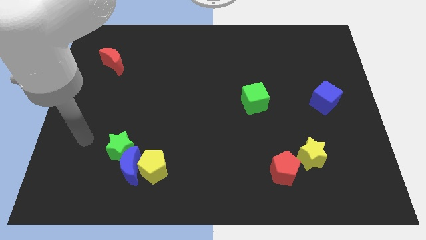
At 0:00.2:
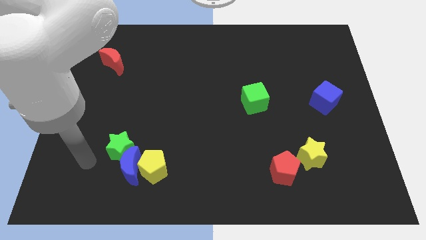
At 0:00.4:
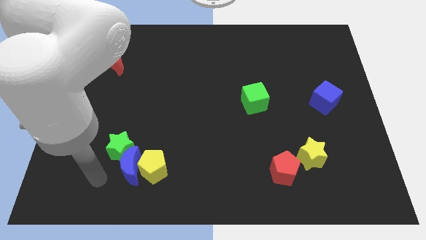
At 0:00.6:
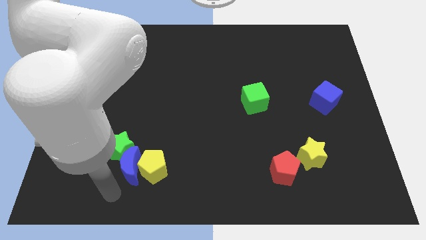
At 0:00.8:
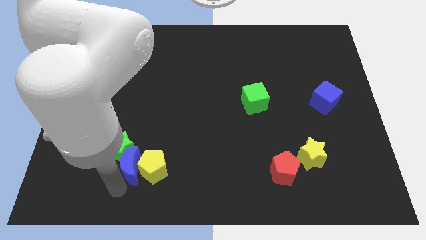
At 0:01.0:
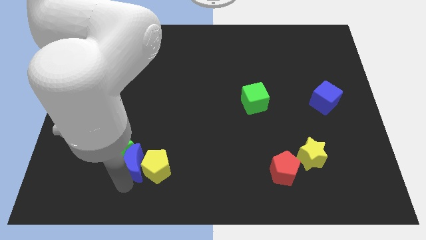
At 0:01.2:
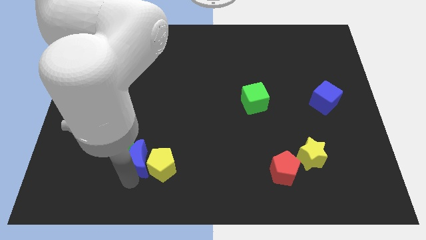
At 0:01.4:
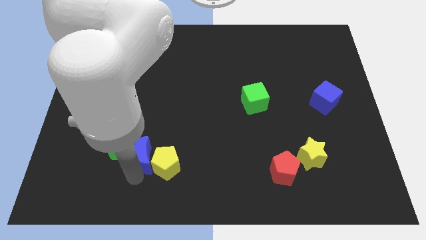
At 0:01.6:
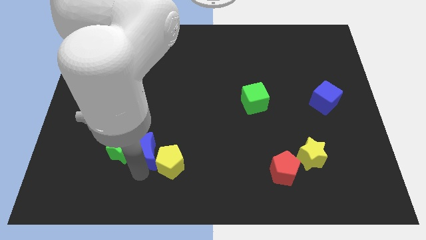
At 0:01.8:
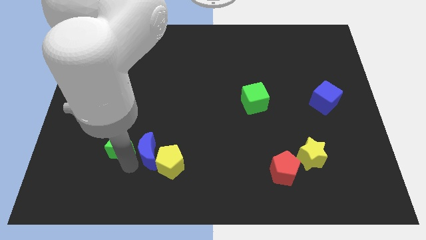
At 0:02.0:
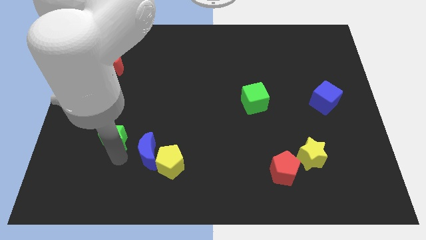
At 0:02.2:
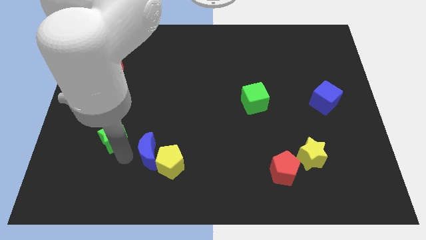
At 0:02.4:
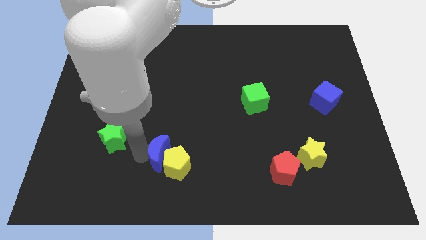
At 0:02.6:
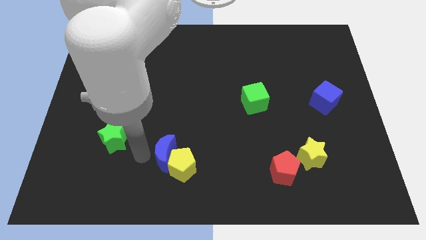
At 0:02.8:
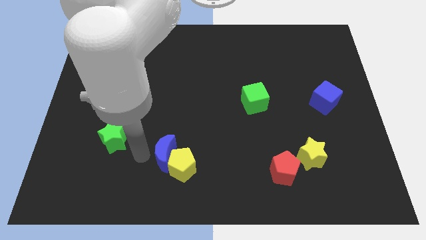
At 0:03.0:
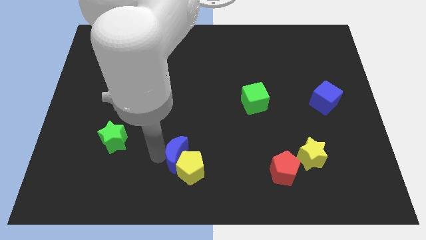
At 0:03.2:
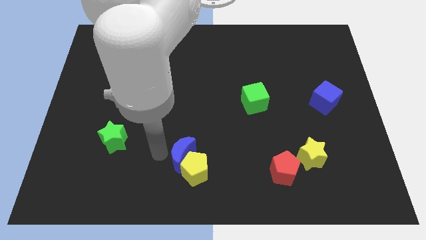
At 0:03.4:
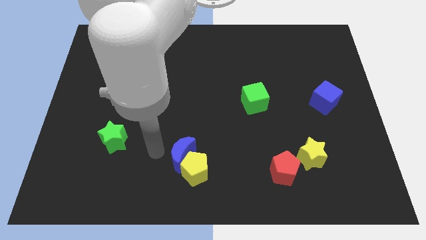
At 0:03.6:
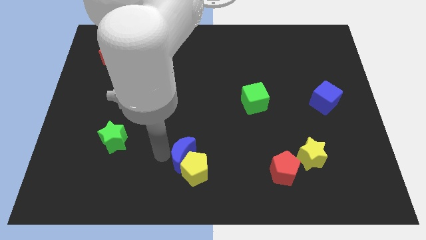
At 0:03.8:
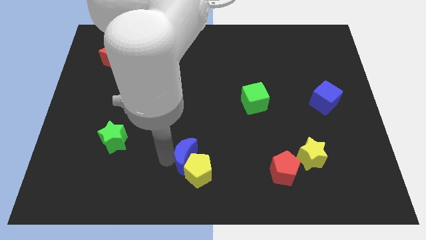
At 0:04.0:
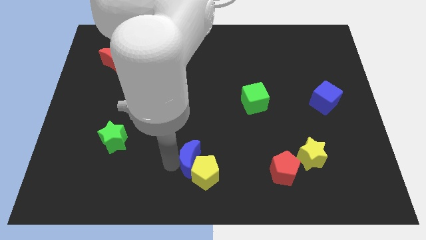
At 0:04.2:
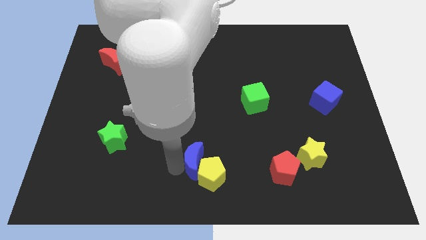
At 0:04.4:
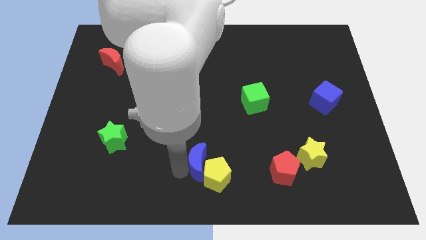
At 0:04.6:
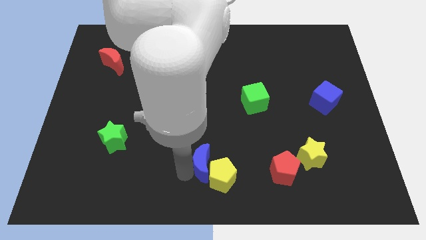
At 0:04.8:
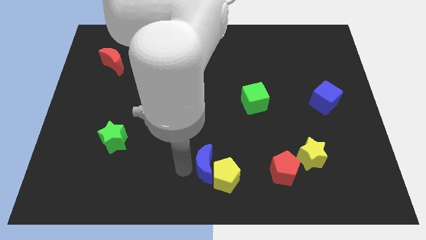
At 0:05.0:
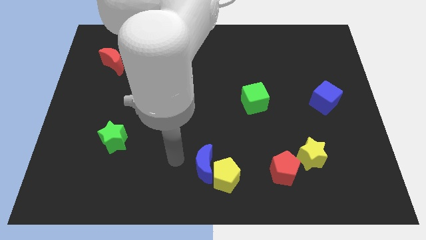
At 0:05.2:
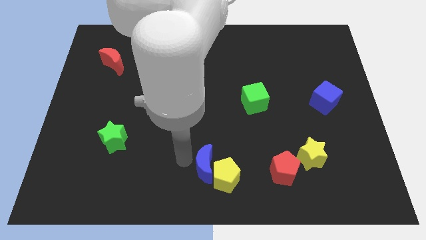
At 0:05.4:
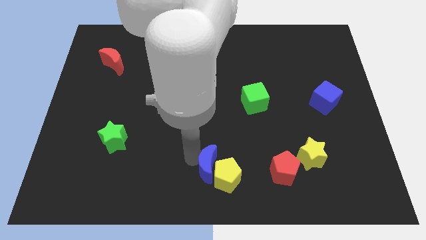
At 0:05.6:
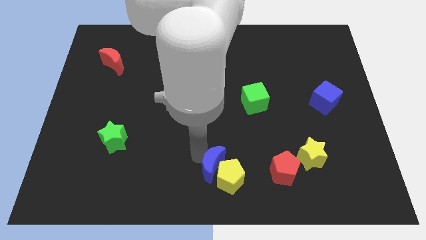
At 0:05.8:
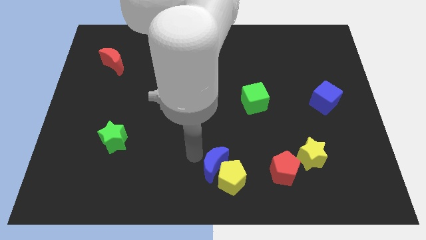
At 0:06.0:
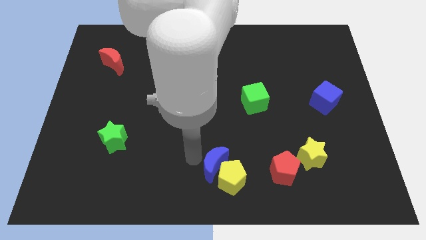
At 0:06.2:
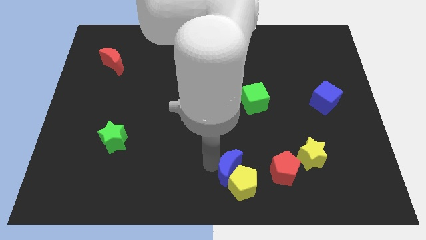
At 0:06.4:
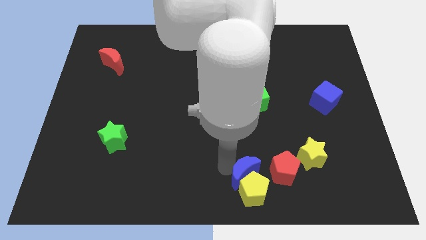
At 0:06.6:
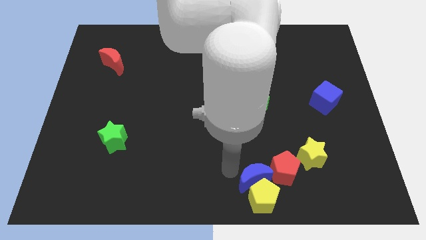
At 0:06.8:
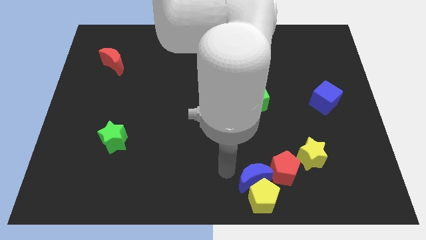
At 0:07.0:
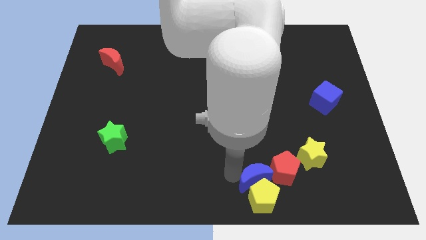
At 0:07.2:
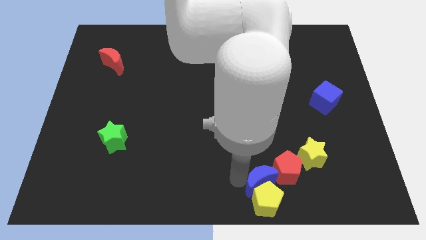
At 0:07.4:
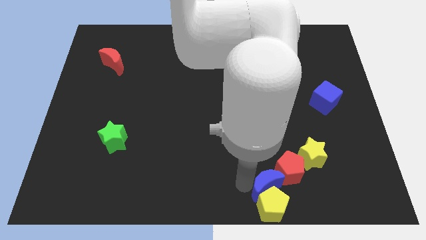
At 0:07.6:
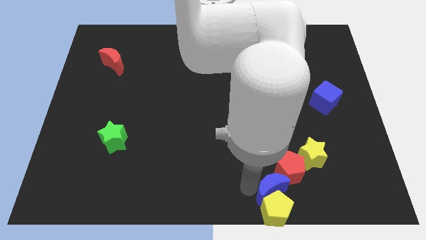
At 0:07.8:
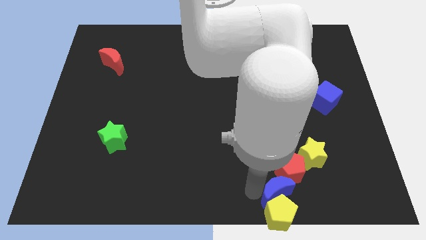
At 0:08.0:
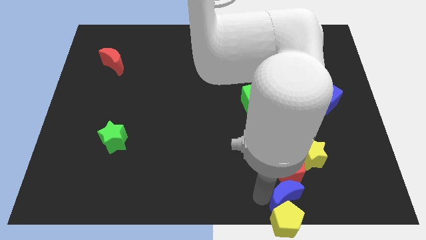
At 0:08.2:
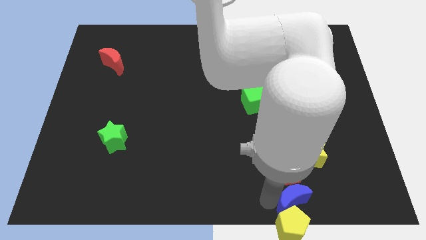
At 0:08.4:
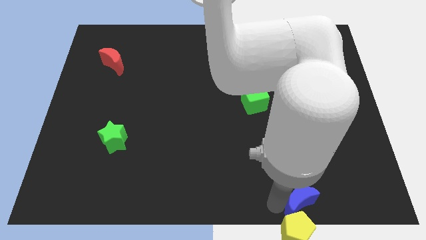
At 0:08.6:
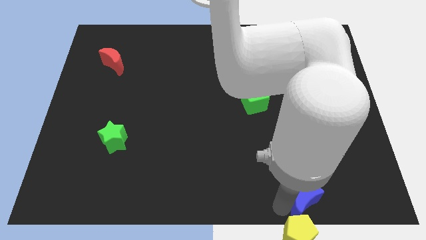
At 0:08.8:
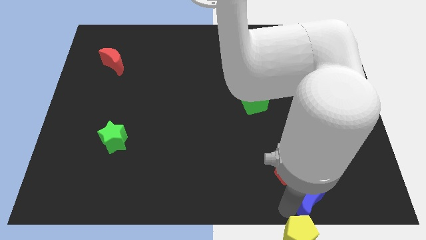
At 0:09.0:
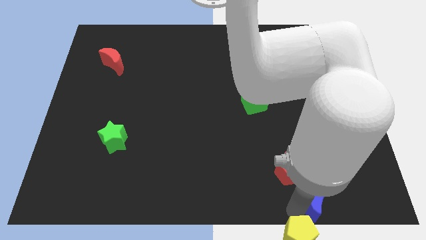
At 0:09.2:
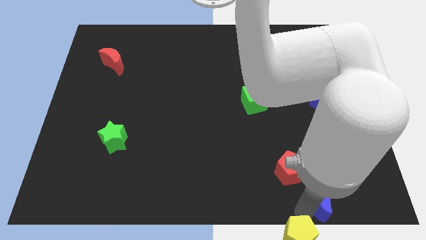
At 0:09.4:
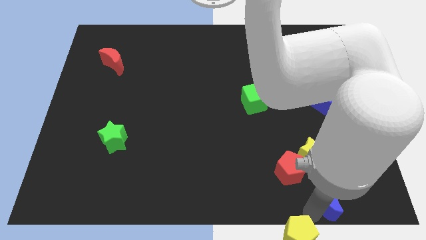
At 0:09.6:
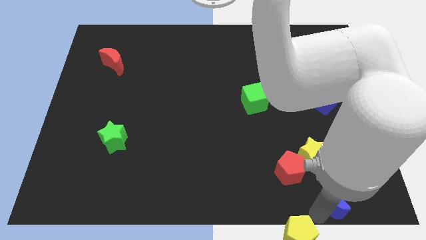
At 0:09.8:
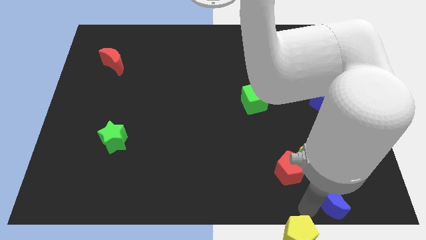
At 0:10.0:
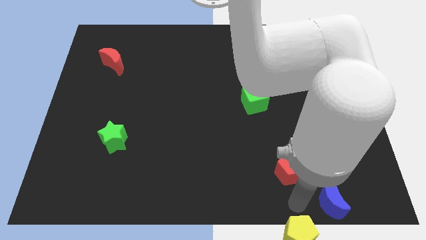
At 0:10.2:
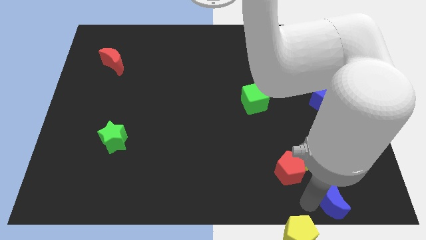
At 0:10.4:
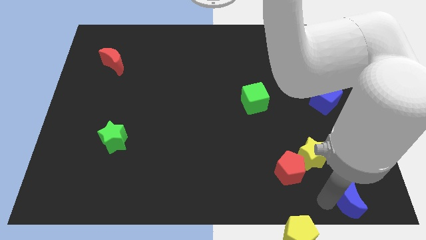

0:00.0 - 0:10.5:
put the blue moon to the bottom right corner

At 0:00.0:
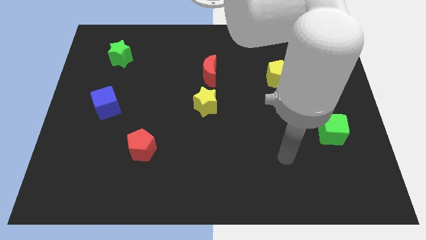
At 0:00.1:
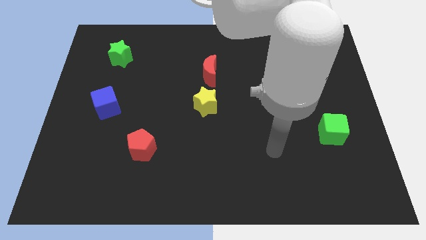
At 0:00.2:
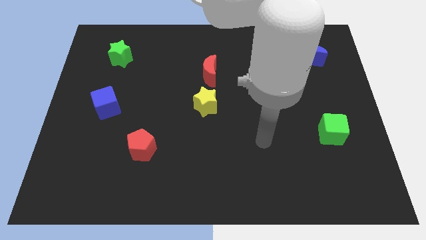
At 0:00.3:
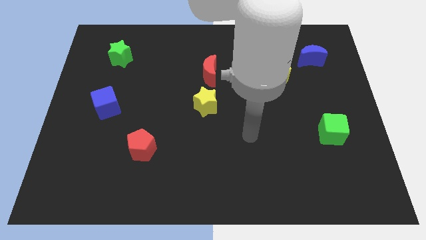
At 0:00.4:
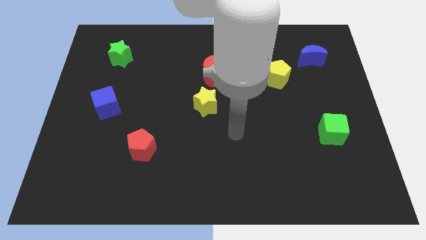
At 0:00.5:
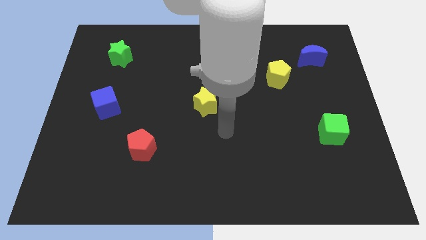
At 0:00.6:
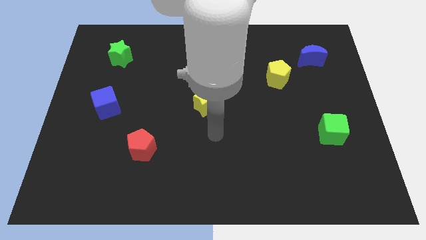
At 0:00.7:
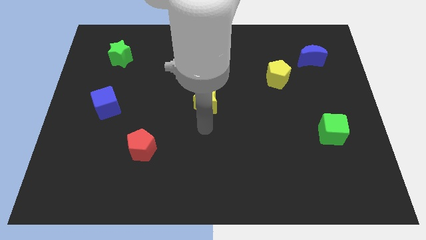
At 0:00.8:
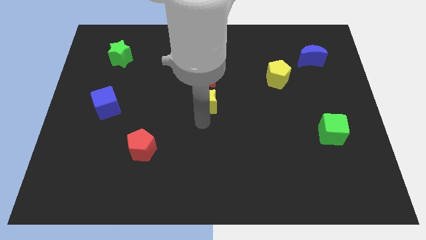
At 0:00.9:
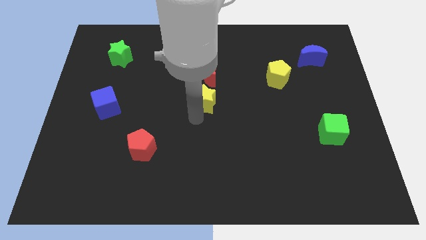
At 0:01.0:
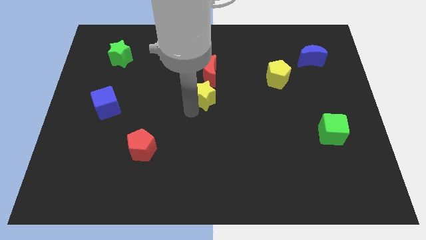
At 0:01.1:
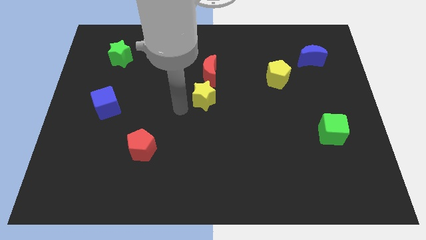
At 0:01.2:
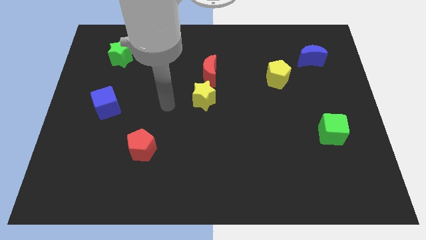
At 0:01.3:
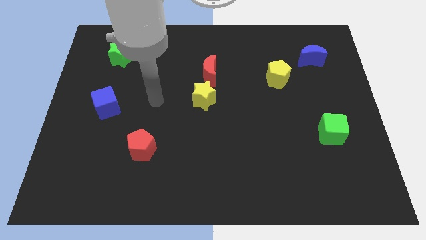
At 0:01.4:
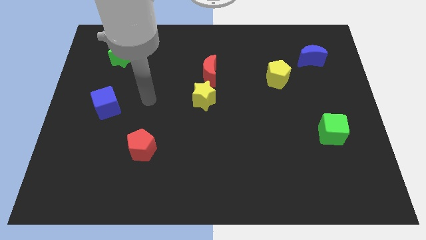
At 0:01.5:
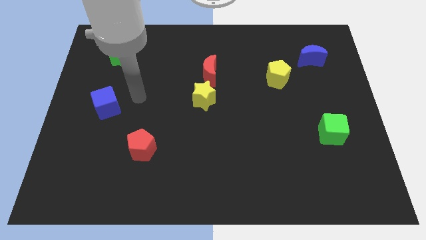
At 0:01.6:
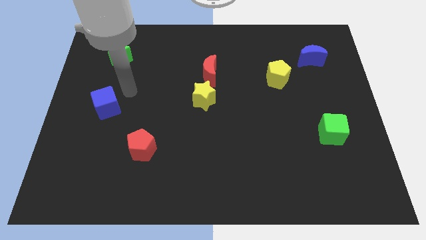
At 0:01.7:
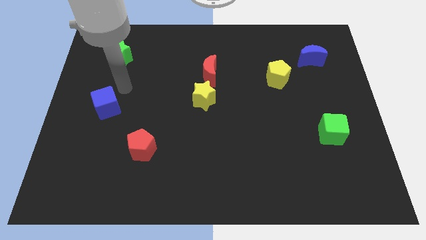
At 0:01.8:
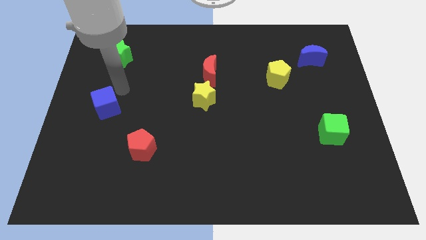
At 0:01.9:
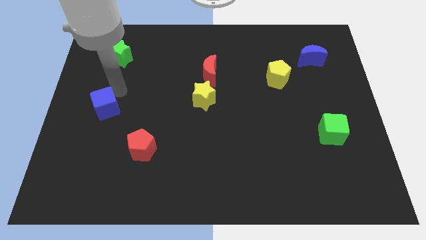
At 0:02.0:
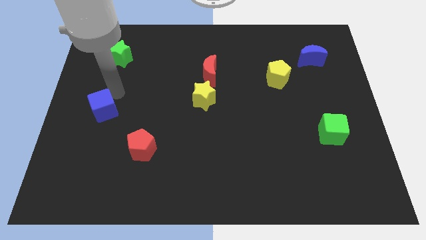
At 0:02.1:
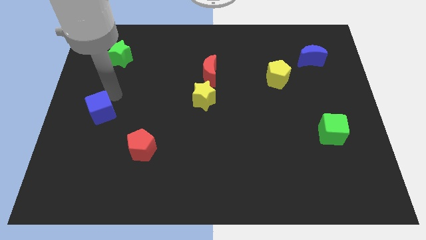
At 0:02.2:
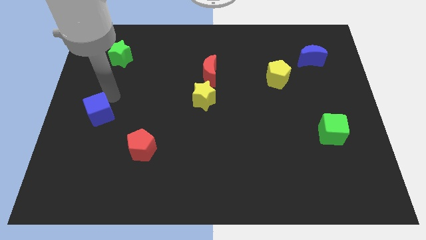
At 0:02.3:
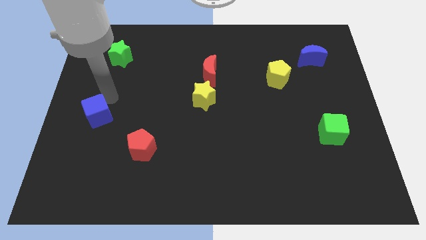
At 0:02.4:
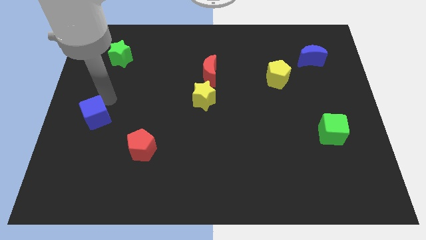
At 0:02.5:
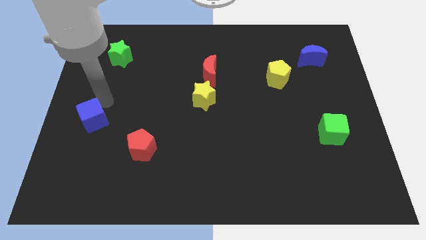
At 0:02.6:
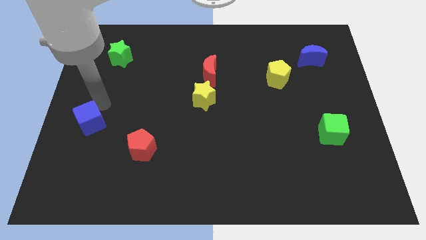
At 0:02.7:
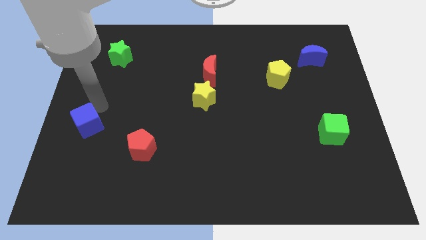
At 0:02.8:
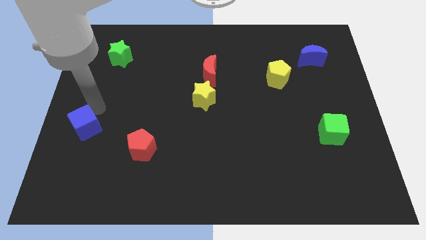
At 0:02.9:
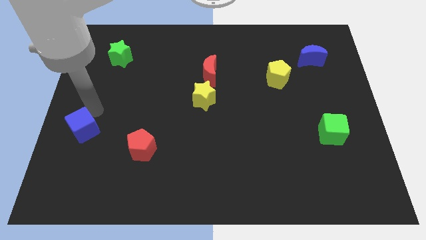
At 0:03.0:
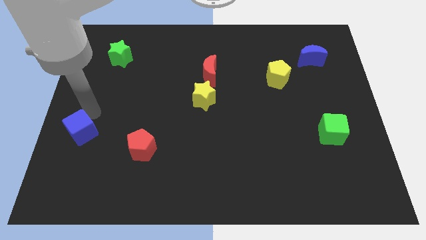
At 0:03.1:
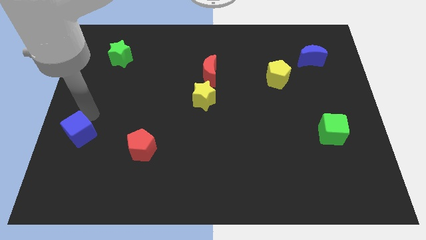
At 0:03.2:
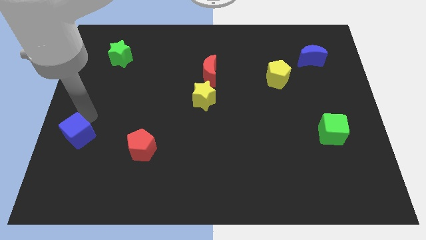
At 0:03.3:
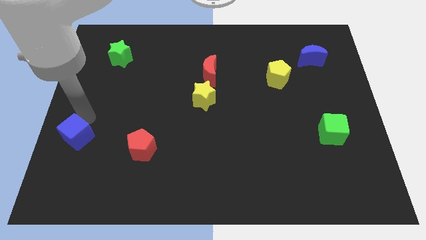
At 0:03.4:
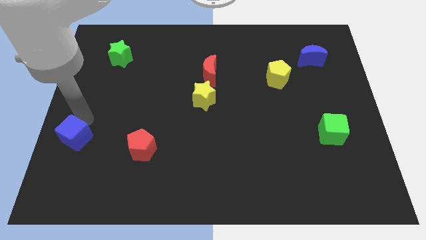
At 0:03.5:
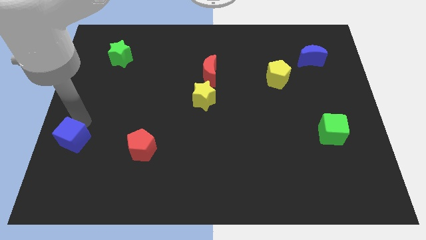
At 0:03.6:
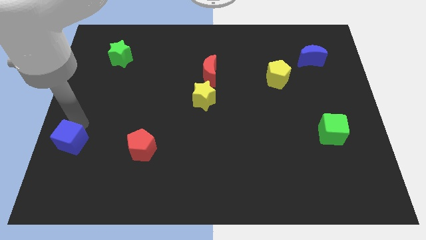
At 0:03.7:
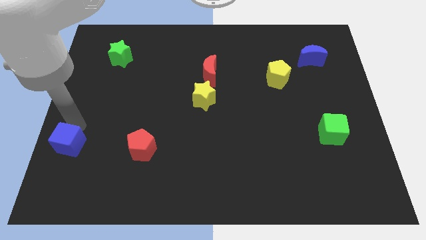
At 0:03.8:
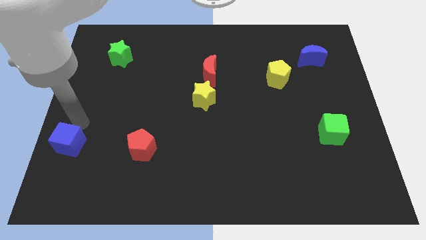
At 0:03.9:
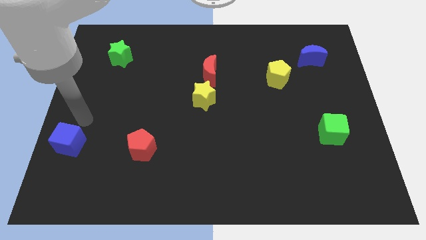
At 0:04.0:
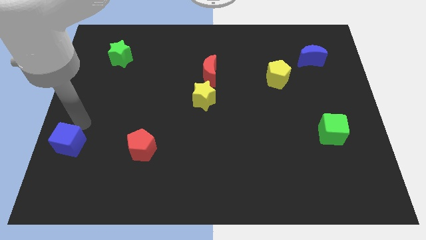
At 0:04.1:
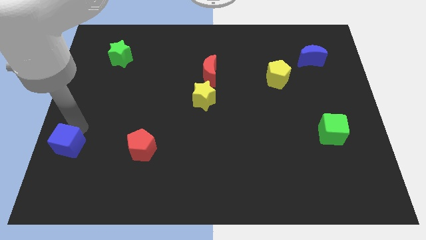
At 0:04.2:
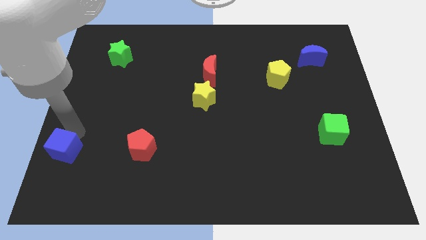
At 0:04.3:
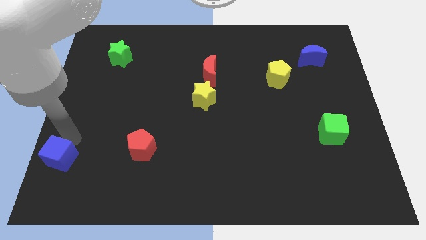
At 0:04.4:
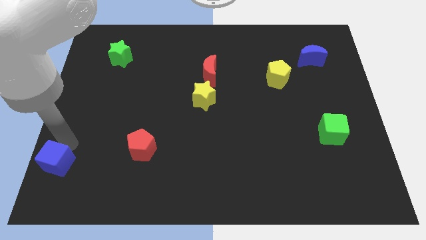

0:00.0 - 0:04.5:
put the blue cube to the bottom left
